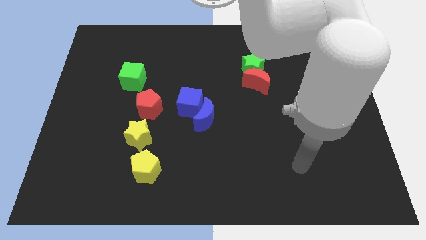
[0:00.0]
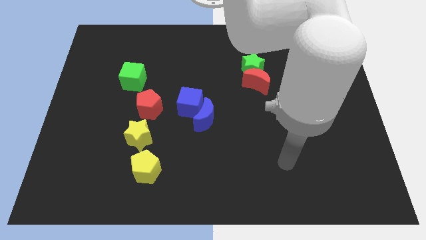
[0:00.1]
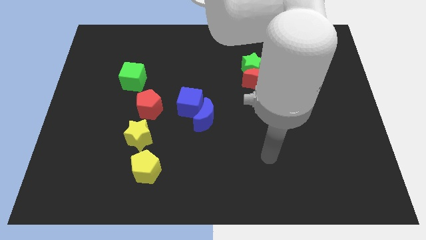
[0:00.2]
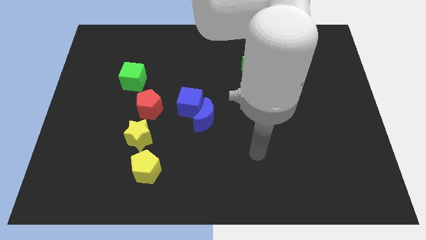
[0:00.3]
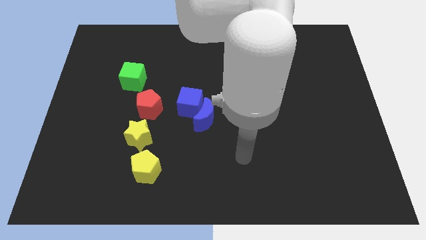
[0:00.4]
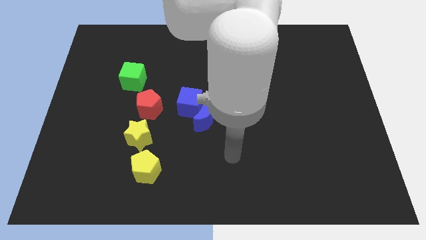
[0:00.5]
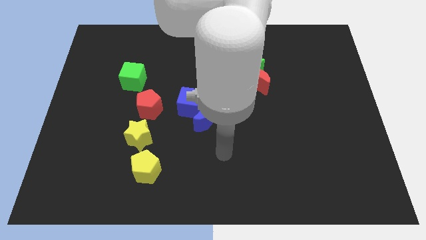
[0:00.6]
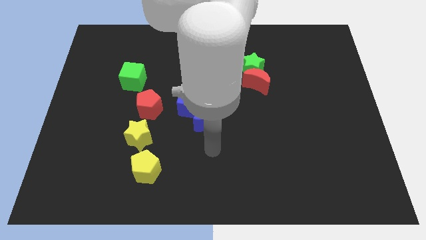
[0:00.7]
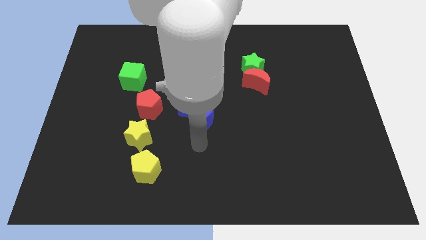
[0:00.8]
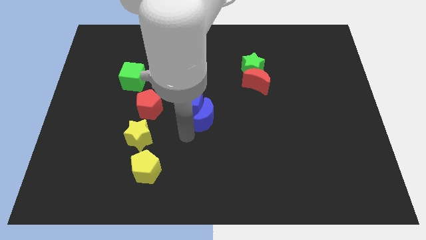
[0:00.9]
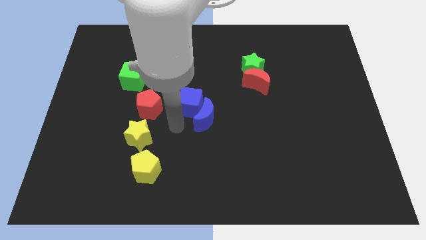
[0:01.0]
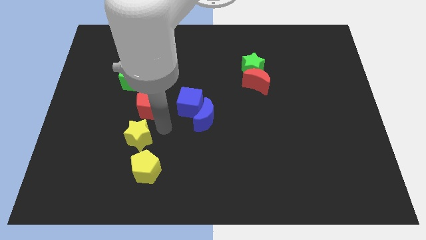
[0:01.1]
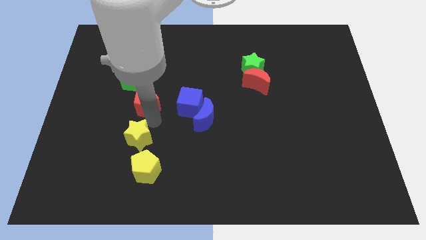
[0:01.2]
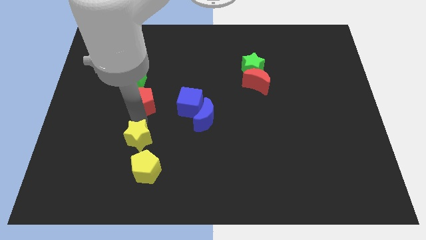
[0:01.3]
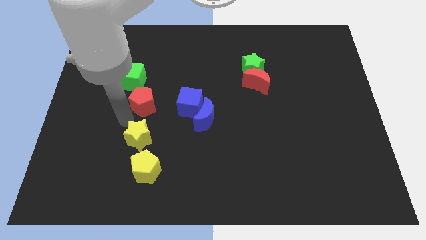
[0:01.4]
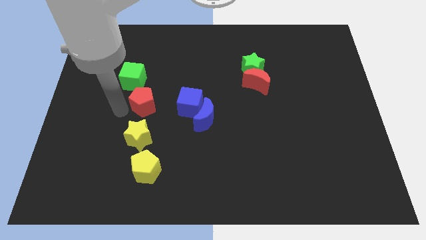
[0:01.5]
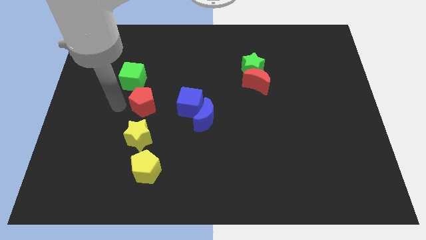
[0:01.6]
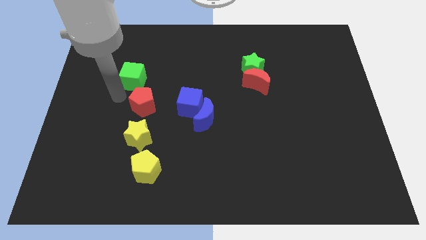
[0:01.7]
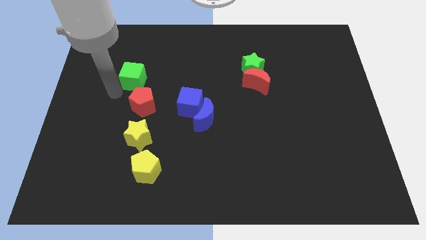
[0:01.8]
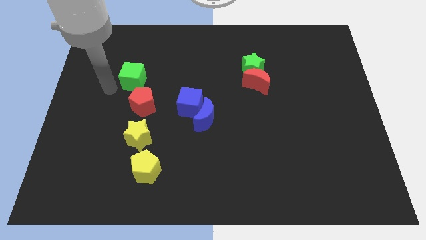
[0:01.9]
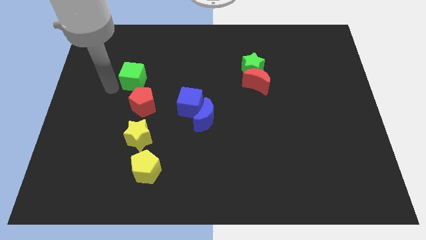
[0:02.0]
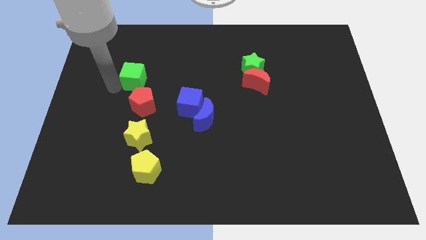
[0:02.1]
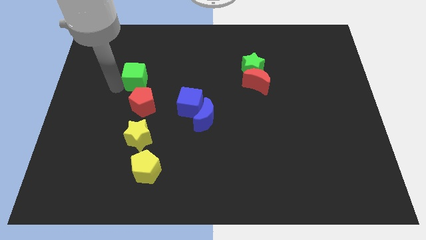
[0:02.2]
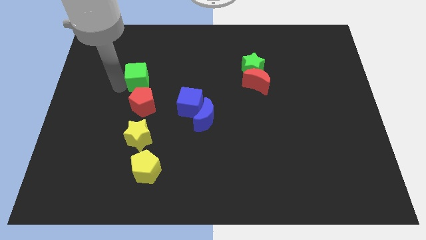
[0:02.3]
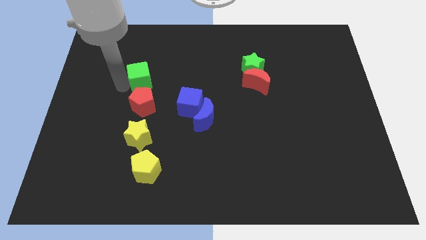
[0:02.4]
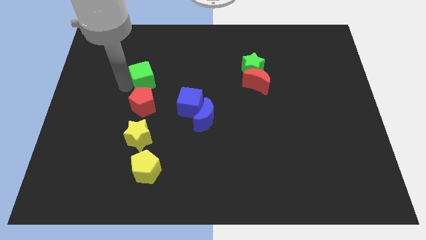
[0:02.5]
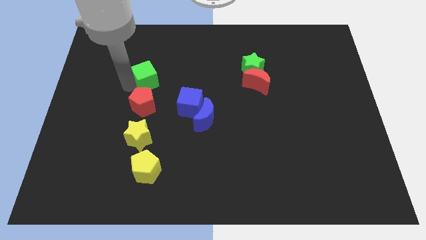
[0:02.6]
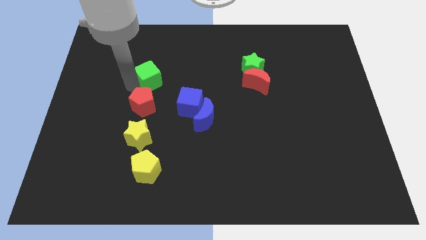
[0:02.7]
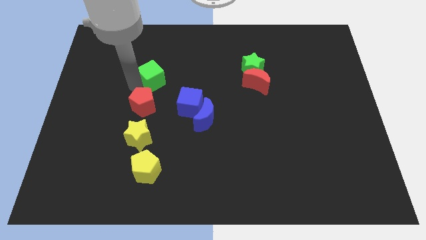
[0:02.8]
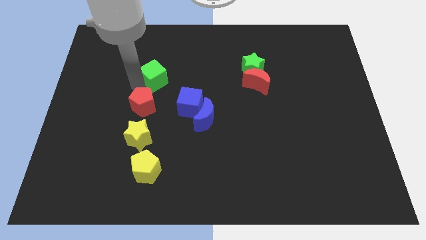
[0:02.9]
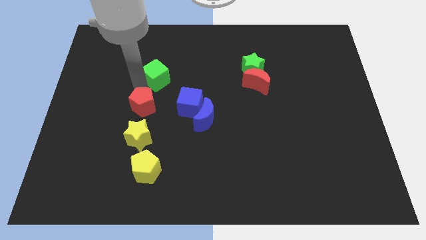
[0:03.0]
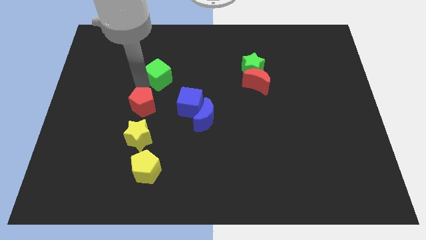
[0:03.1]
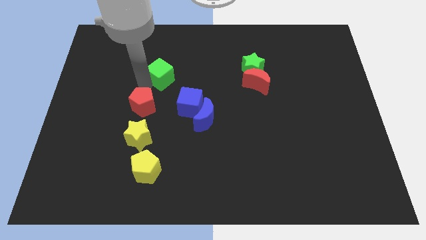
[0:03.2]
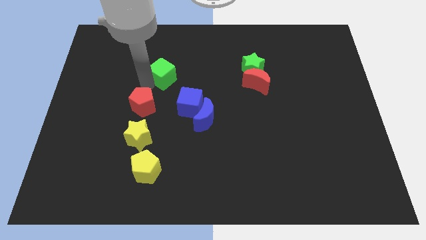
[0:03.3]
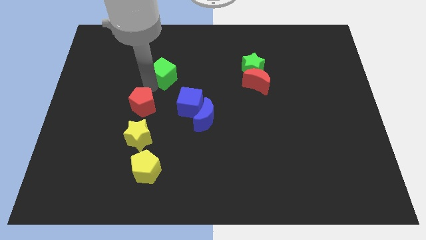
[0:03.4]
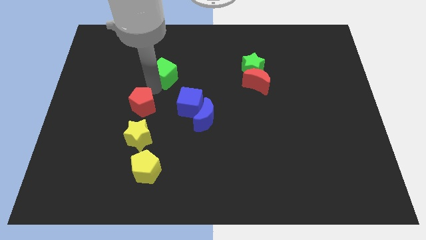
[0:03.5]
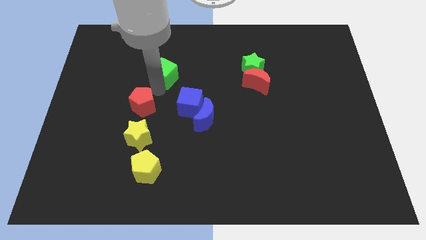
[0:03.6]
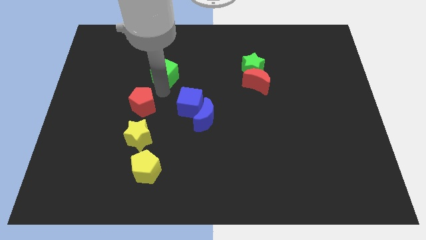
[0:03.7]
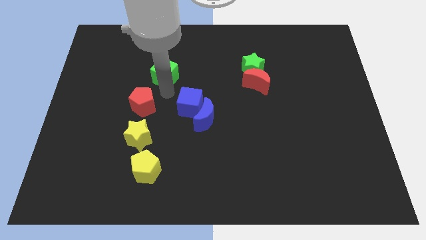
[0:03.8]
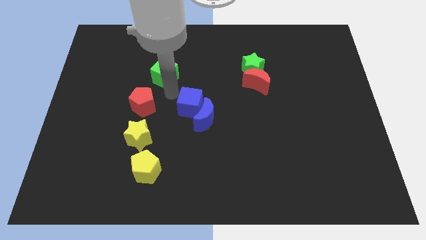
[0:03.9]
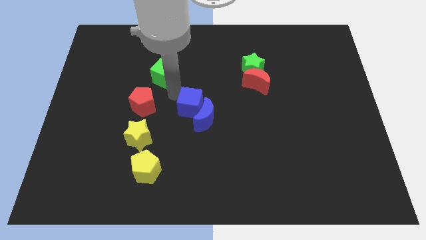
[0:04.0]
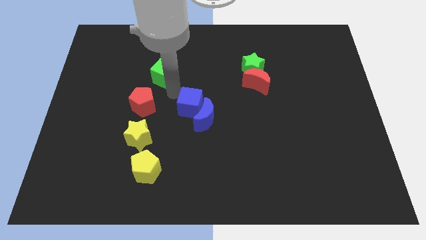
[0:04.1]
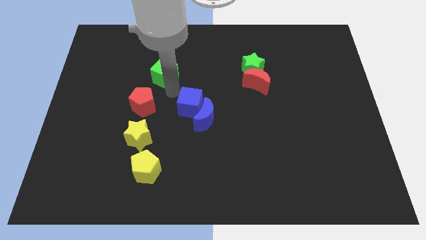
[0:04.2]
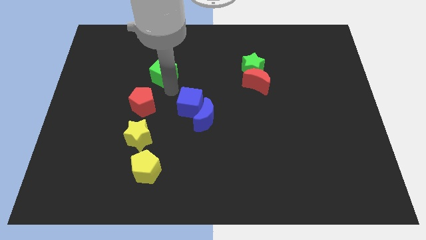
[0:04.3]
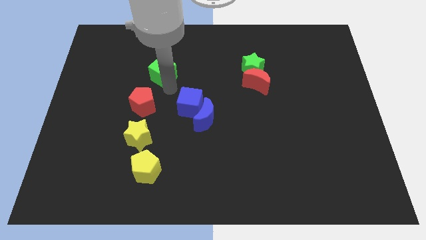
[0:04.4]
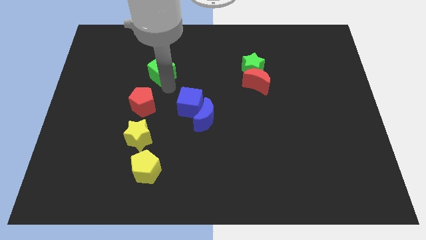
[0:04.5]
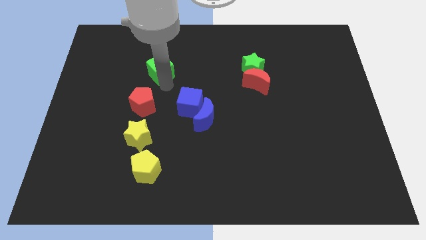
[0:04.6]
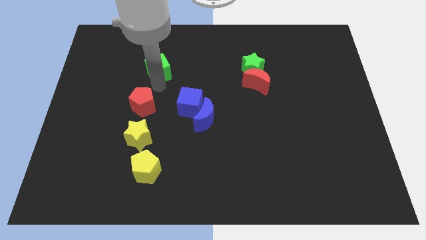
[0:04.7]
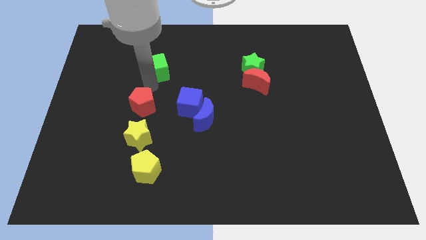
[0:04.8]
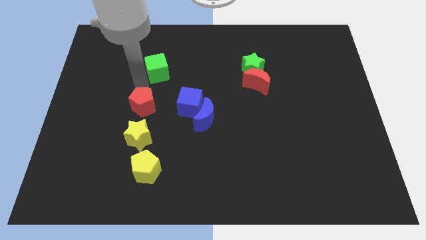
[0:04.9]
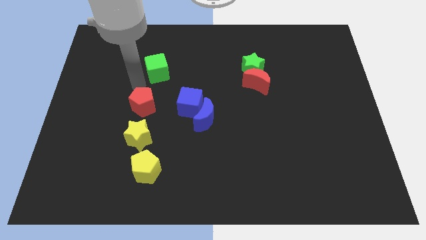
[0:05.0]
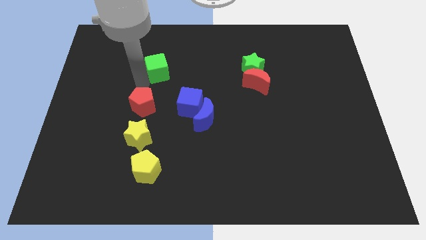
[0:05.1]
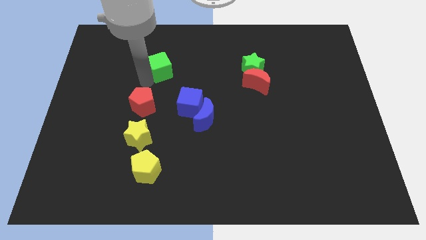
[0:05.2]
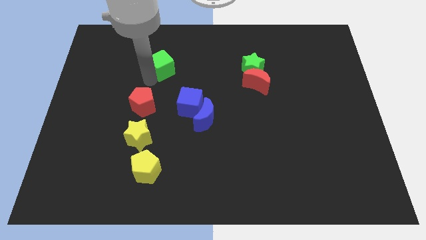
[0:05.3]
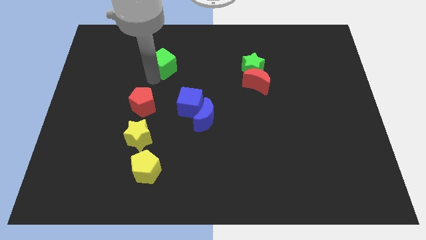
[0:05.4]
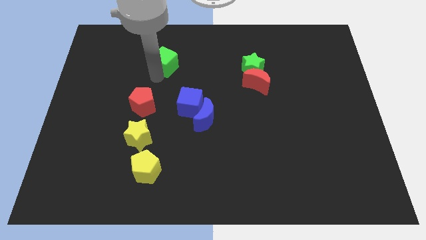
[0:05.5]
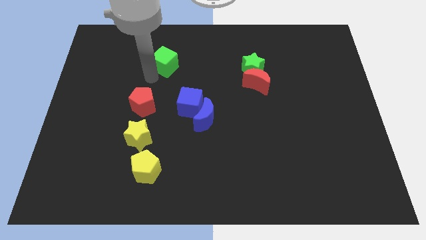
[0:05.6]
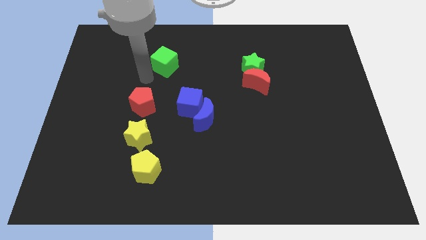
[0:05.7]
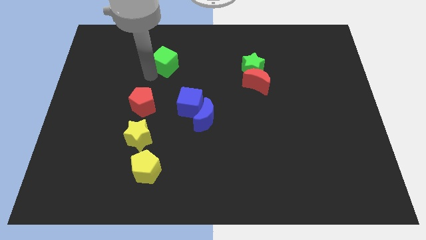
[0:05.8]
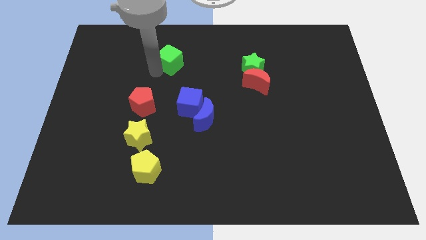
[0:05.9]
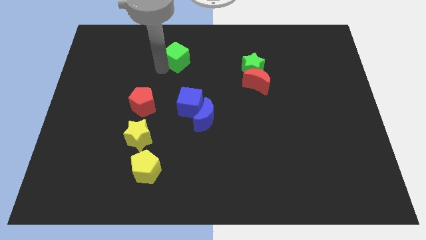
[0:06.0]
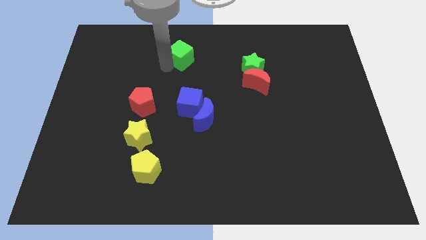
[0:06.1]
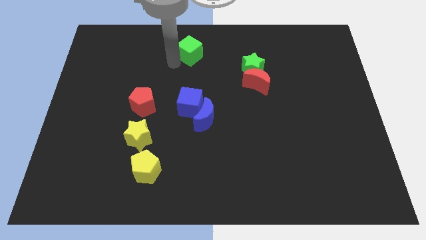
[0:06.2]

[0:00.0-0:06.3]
move the green cube to the towards your base

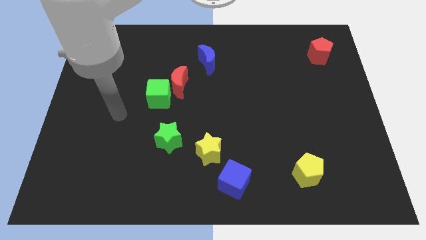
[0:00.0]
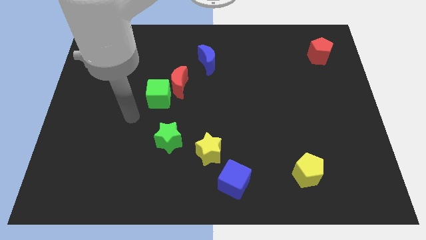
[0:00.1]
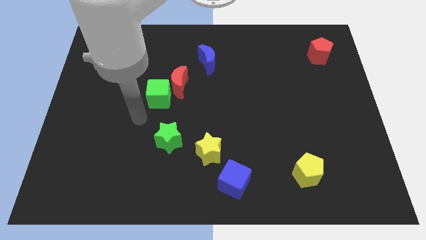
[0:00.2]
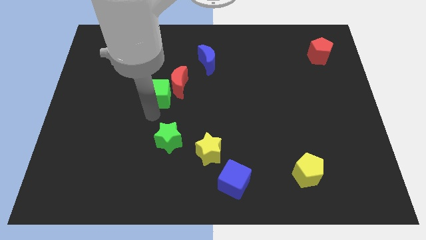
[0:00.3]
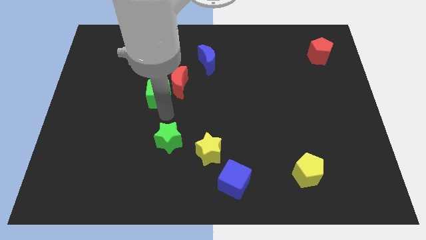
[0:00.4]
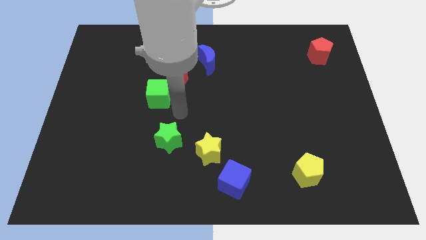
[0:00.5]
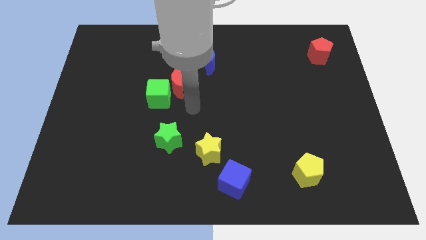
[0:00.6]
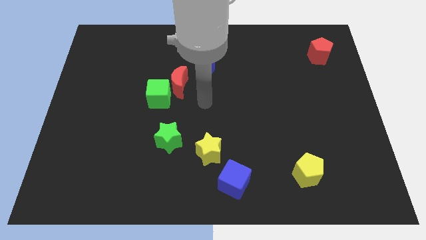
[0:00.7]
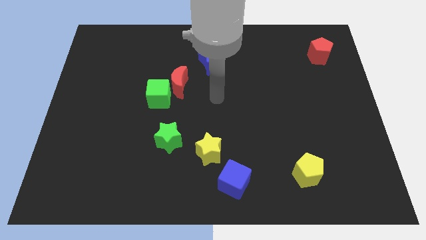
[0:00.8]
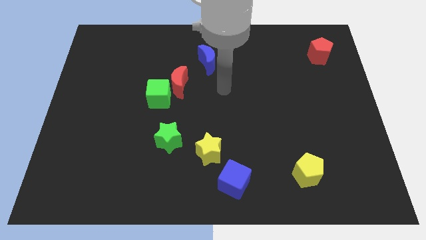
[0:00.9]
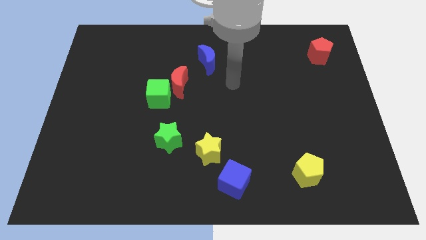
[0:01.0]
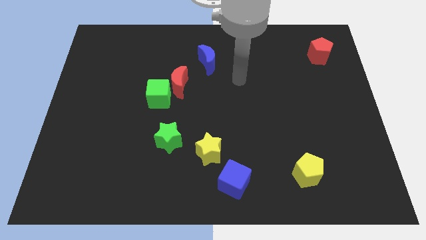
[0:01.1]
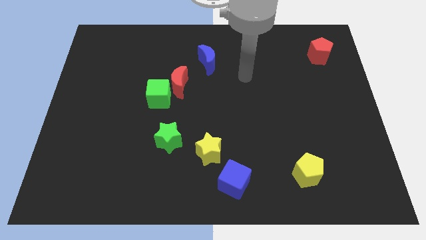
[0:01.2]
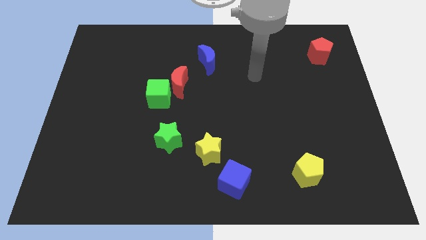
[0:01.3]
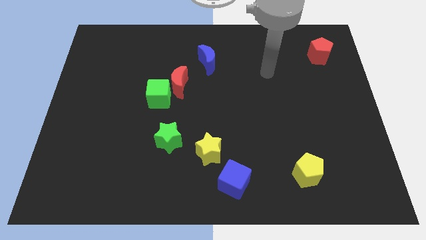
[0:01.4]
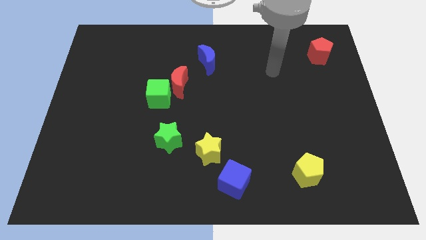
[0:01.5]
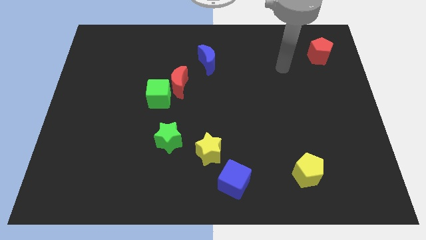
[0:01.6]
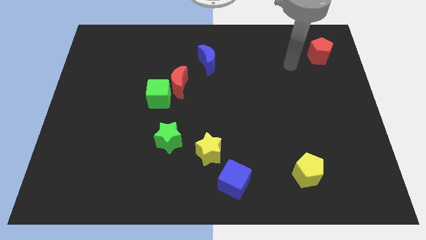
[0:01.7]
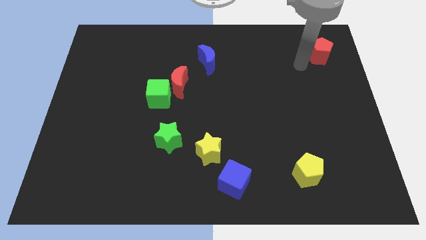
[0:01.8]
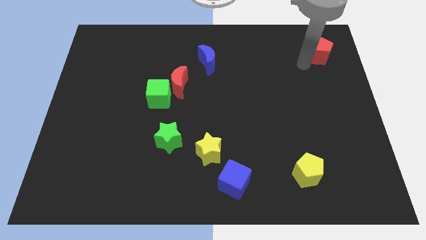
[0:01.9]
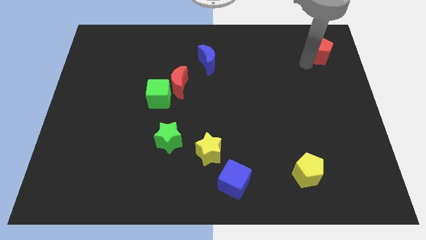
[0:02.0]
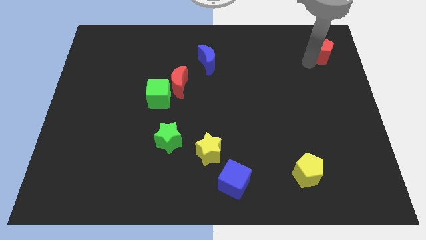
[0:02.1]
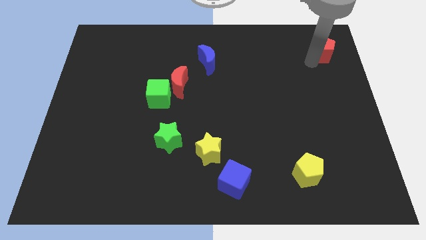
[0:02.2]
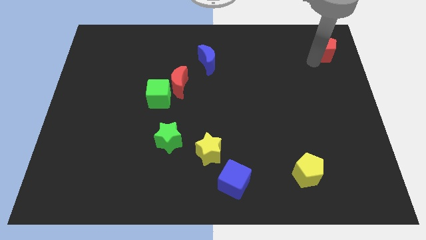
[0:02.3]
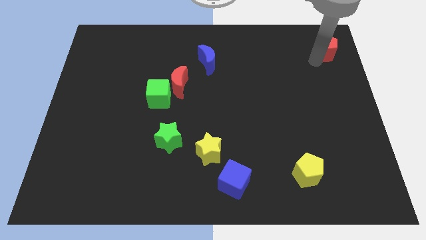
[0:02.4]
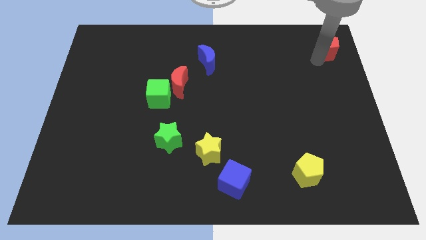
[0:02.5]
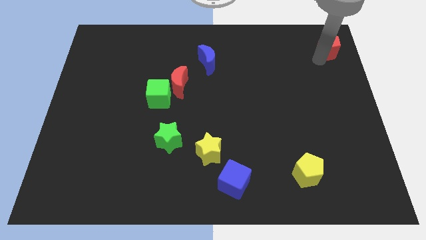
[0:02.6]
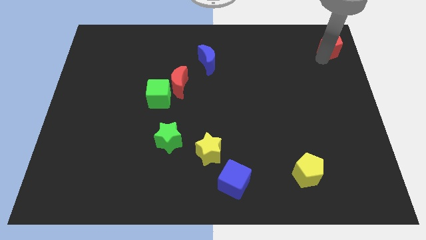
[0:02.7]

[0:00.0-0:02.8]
slide the red pentagon to the top right
